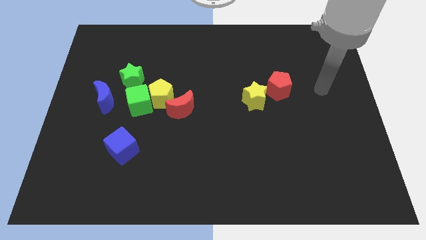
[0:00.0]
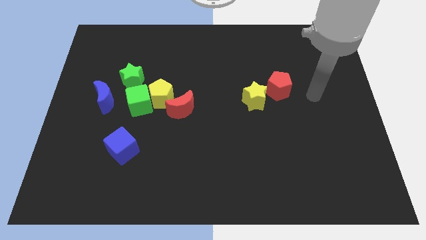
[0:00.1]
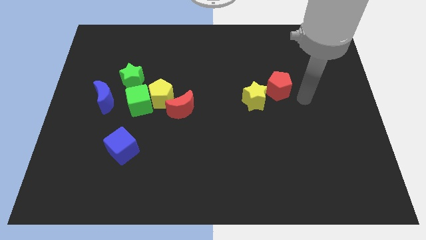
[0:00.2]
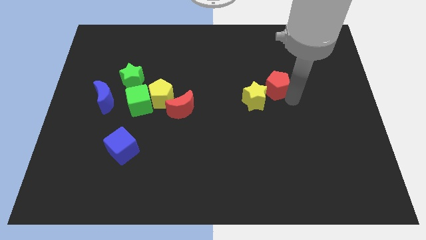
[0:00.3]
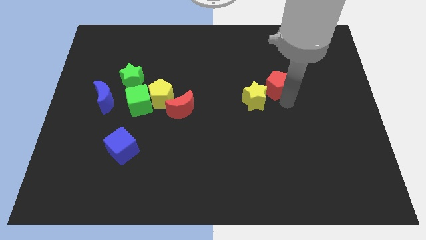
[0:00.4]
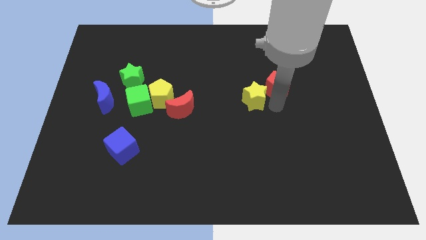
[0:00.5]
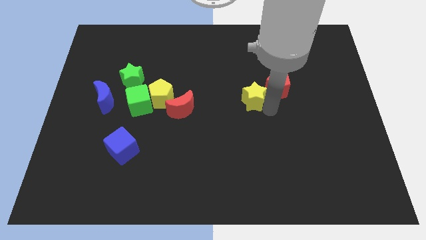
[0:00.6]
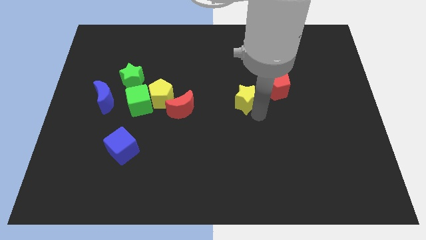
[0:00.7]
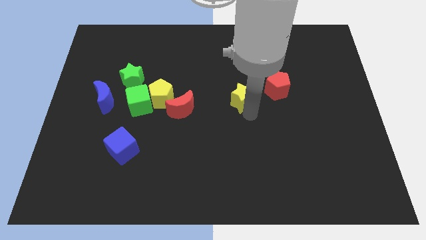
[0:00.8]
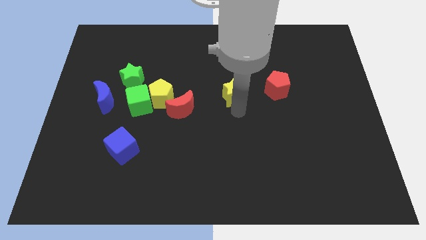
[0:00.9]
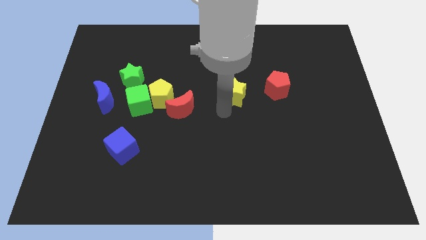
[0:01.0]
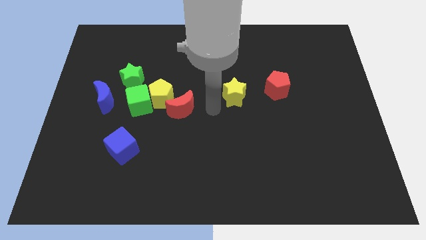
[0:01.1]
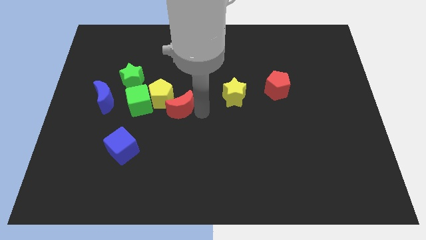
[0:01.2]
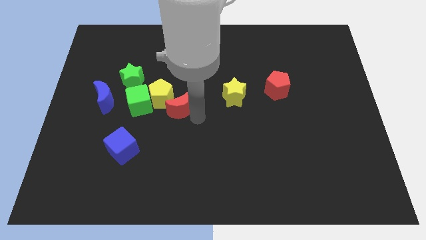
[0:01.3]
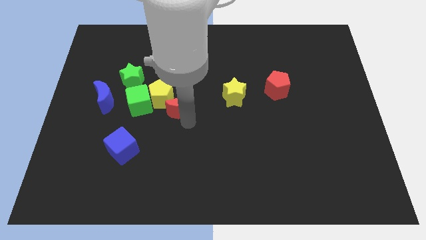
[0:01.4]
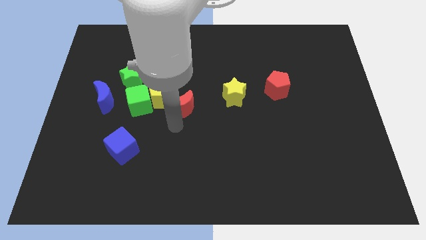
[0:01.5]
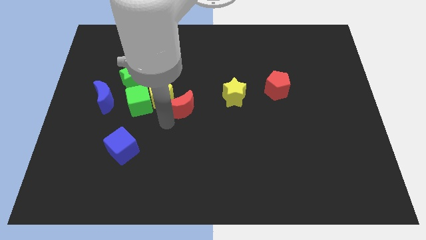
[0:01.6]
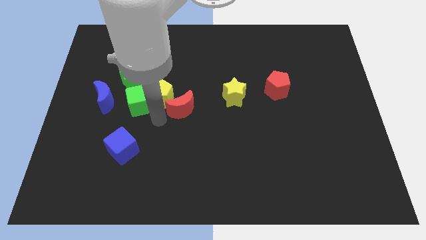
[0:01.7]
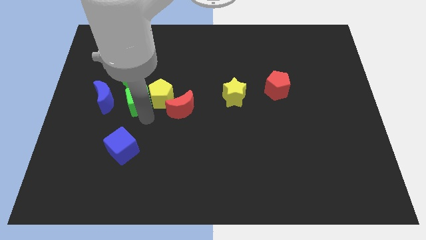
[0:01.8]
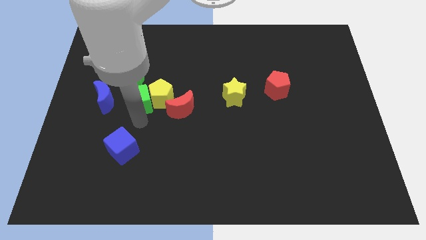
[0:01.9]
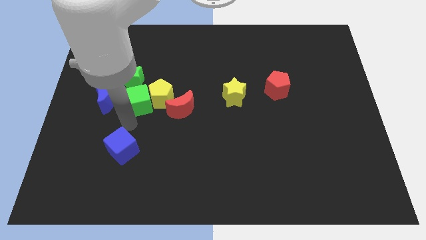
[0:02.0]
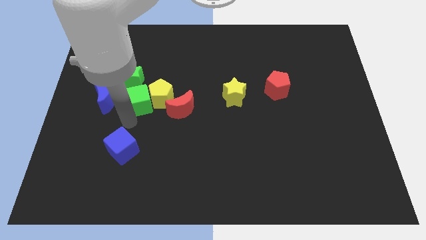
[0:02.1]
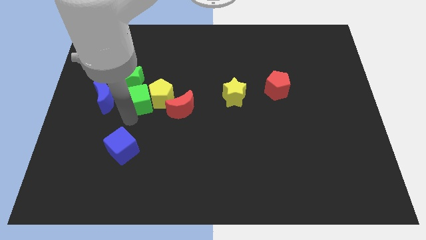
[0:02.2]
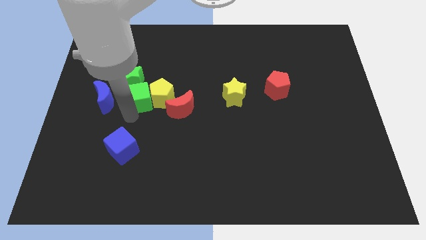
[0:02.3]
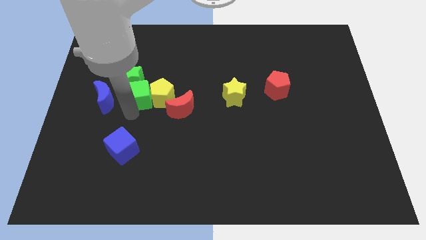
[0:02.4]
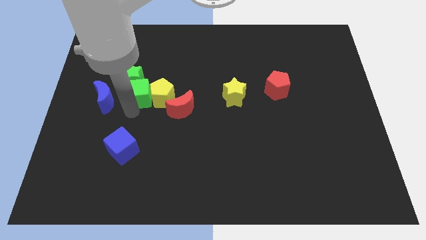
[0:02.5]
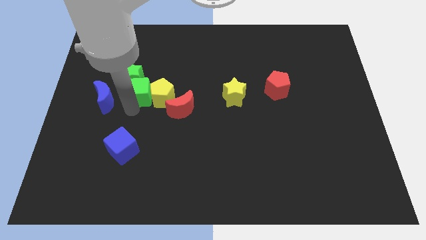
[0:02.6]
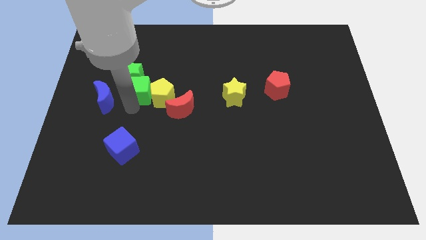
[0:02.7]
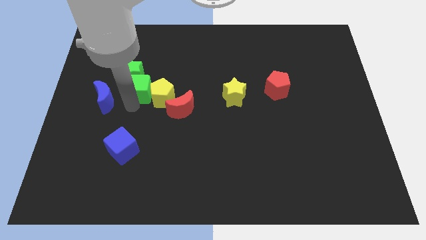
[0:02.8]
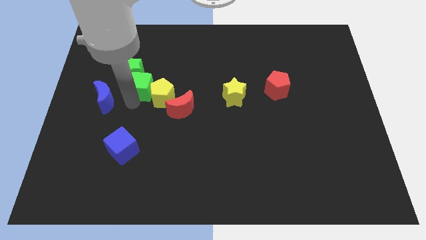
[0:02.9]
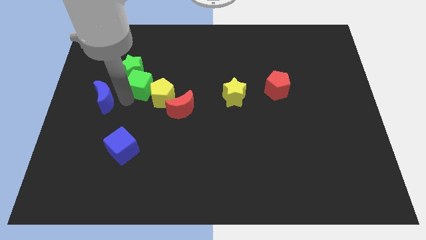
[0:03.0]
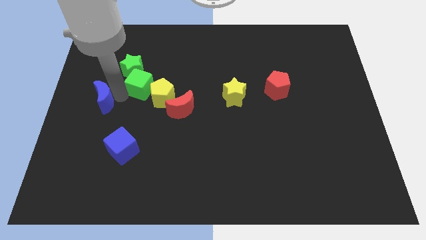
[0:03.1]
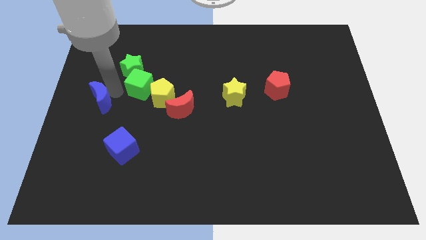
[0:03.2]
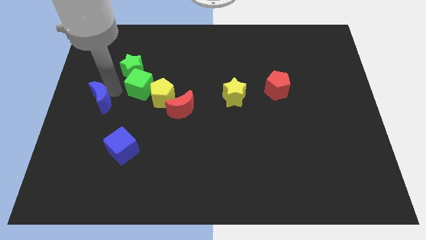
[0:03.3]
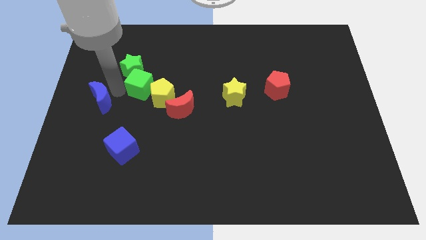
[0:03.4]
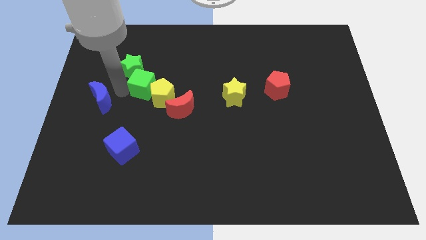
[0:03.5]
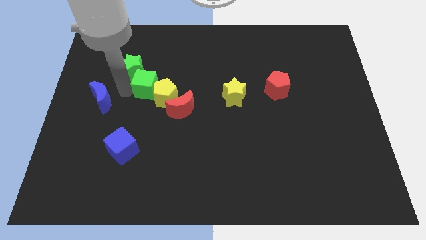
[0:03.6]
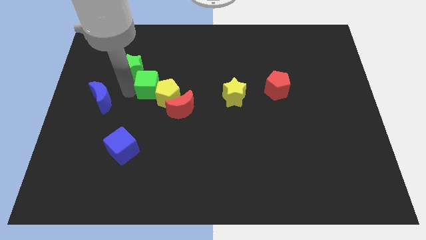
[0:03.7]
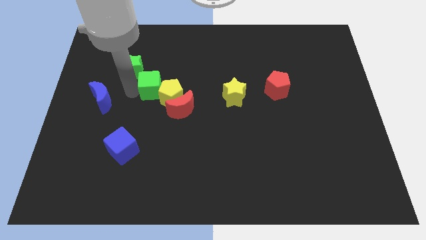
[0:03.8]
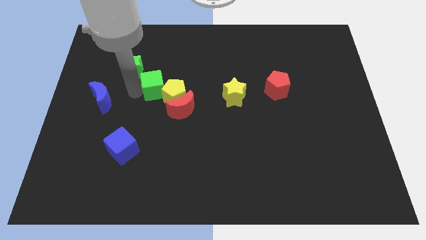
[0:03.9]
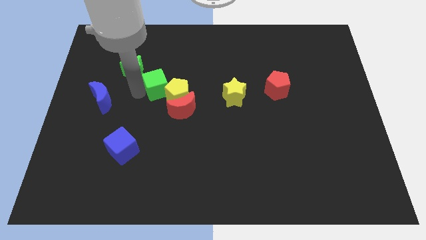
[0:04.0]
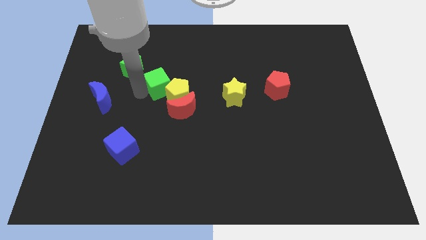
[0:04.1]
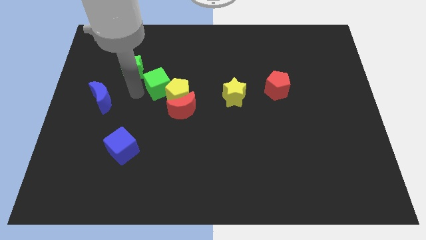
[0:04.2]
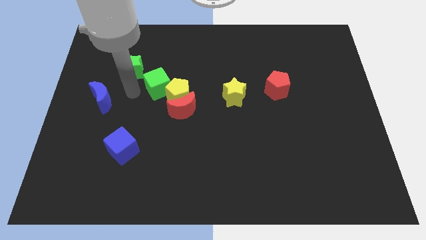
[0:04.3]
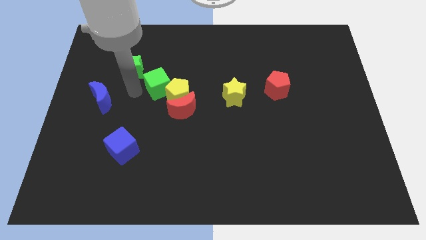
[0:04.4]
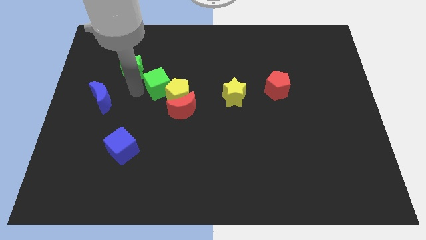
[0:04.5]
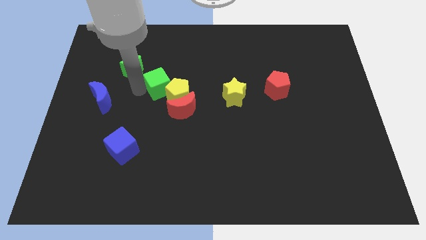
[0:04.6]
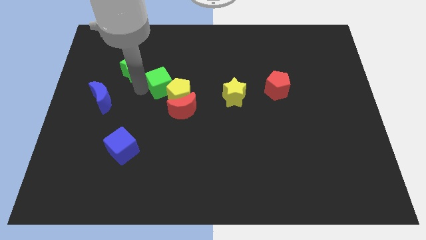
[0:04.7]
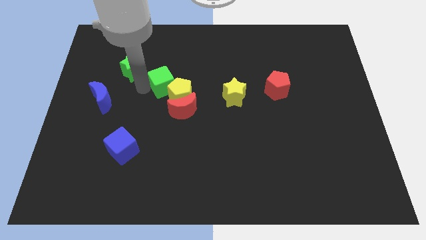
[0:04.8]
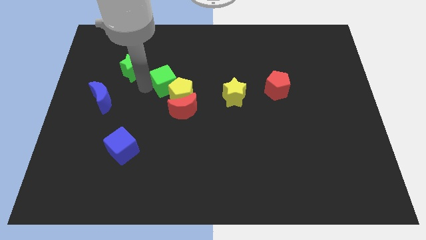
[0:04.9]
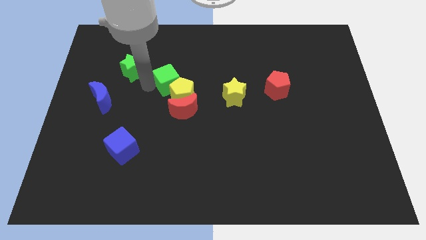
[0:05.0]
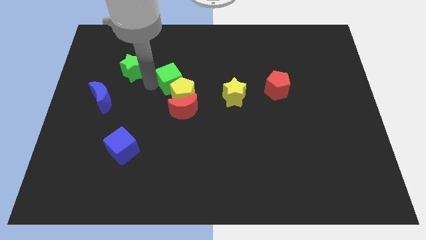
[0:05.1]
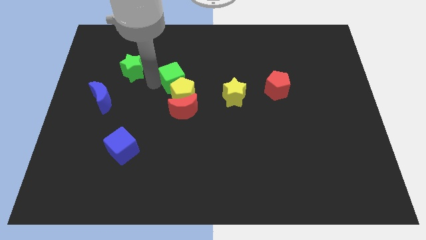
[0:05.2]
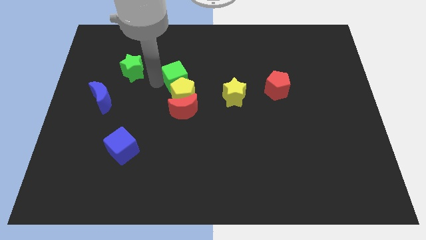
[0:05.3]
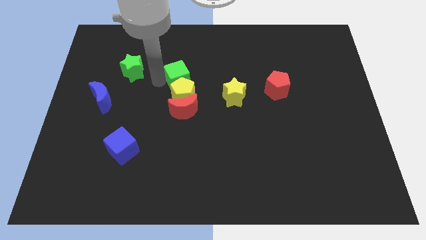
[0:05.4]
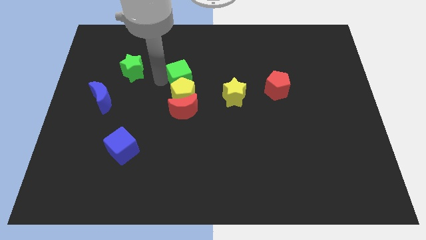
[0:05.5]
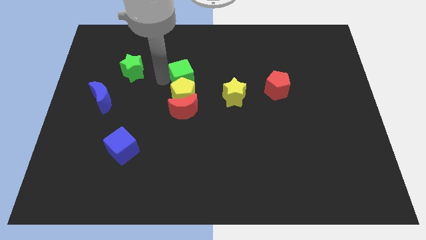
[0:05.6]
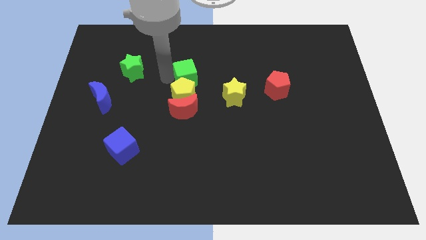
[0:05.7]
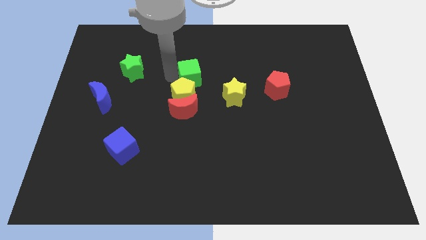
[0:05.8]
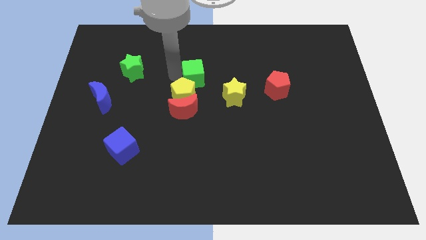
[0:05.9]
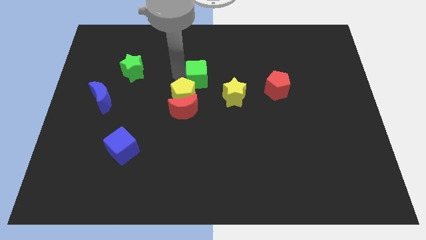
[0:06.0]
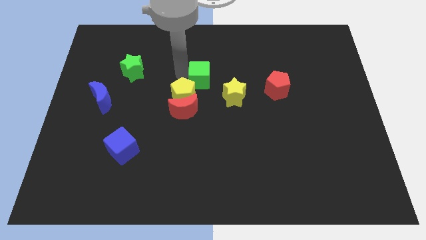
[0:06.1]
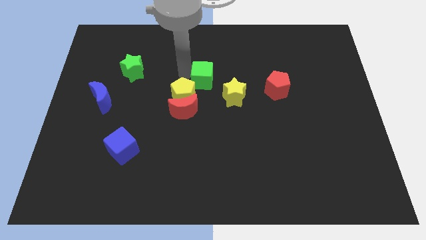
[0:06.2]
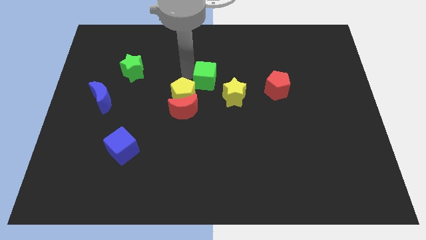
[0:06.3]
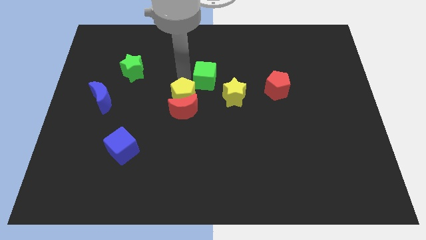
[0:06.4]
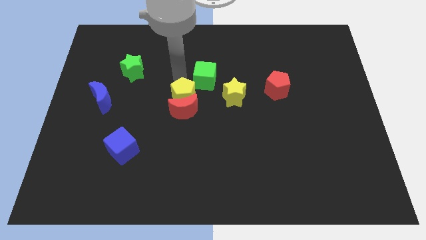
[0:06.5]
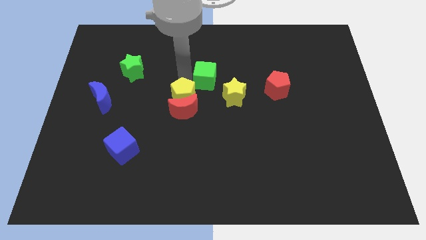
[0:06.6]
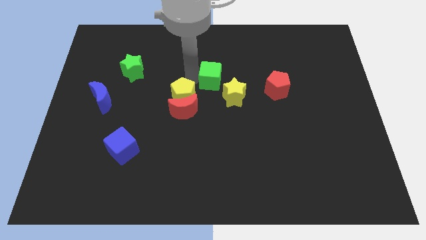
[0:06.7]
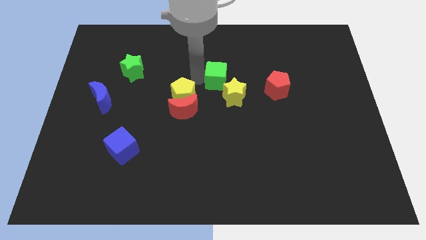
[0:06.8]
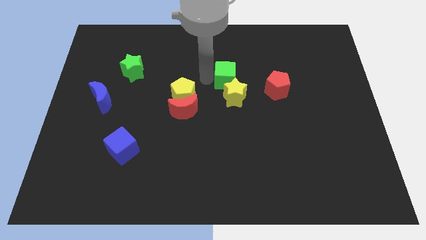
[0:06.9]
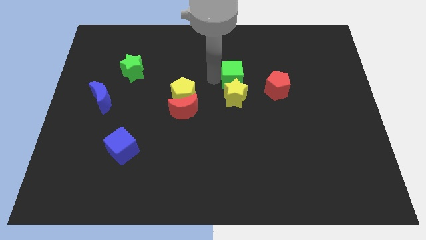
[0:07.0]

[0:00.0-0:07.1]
move the green cube to the top right side of the yellow star
